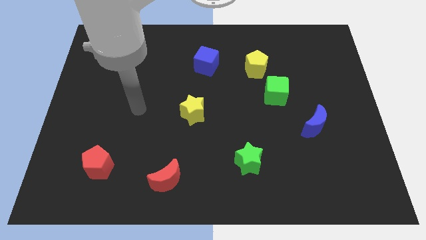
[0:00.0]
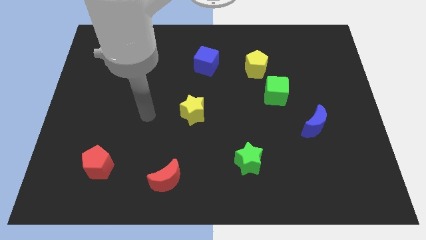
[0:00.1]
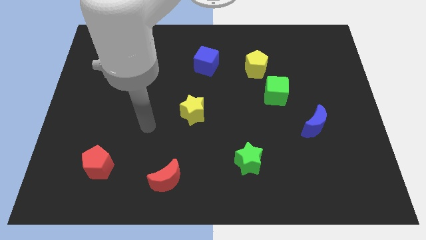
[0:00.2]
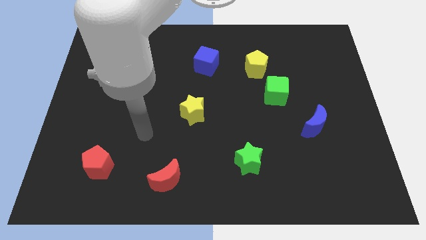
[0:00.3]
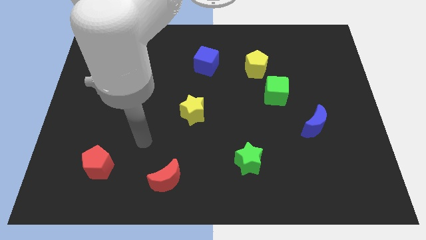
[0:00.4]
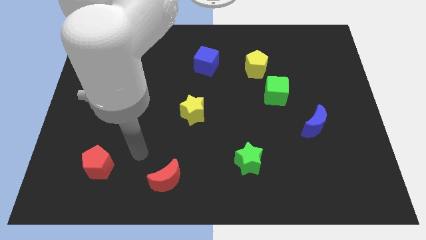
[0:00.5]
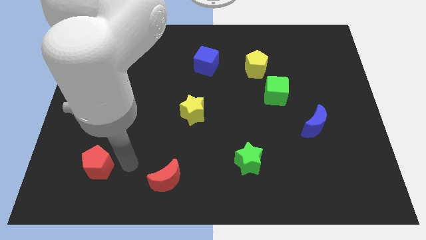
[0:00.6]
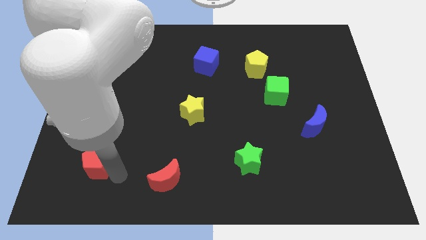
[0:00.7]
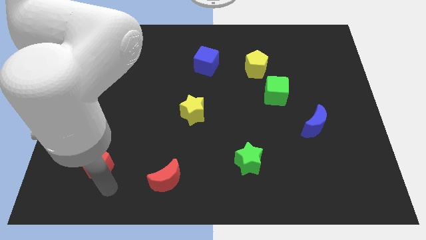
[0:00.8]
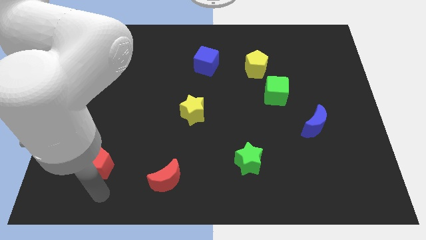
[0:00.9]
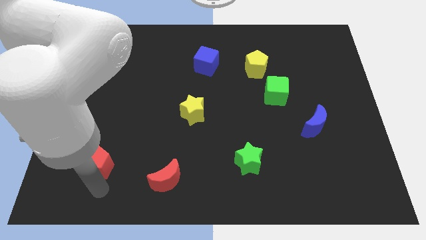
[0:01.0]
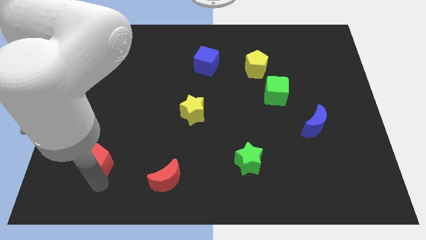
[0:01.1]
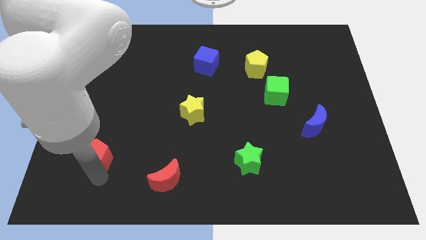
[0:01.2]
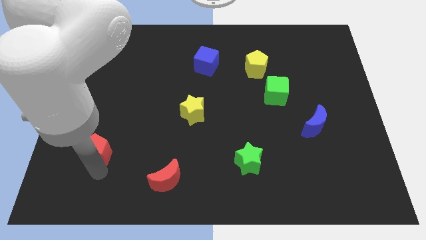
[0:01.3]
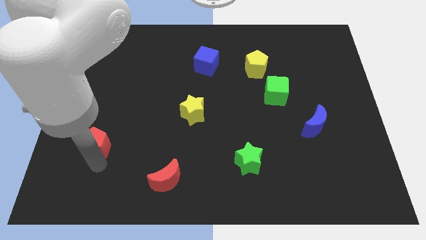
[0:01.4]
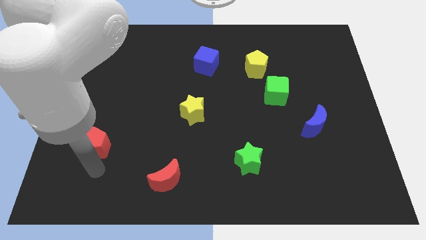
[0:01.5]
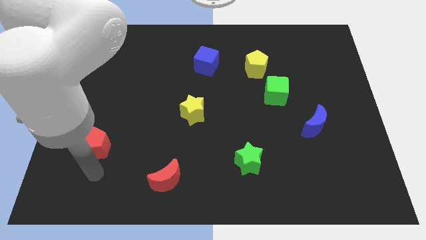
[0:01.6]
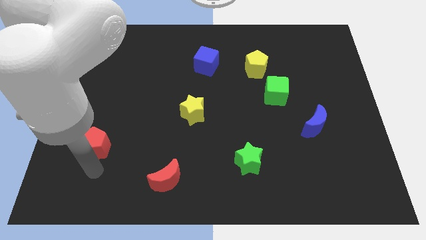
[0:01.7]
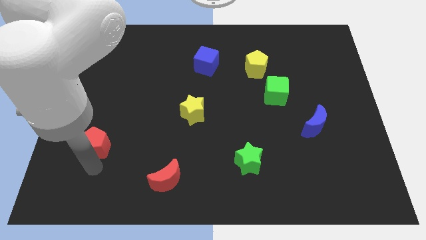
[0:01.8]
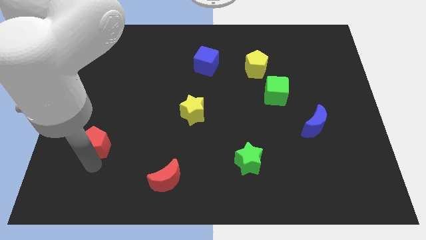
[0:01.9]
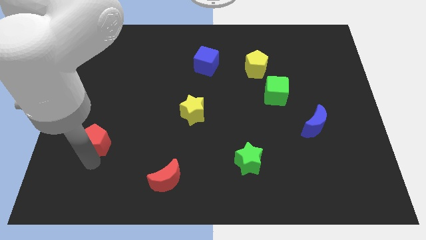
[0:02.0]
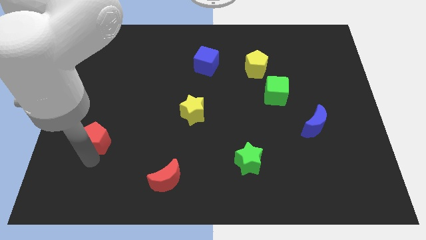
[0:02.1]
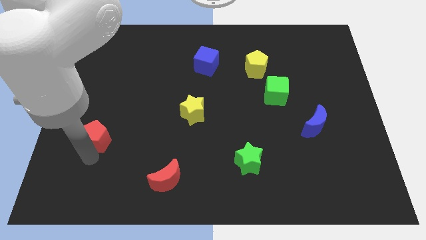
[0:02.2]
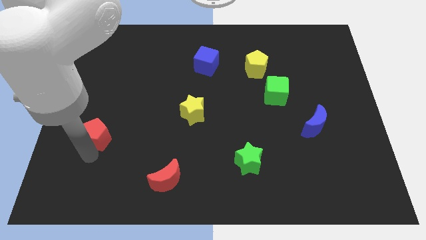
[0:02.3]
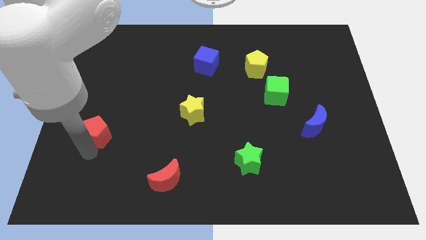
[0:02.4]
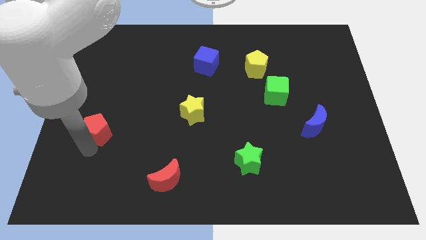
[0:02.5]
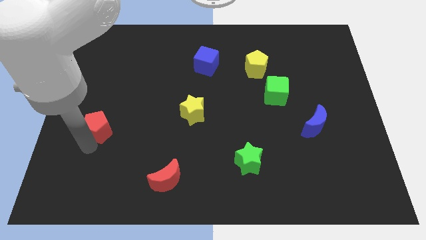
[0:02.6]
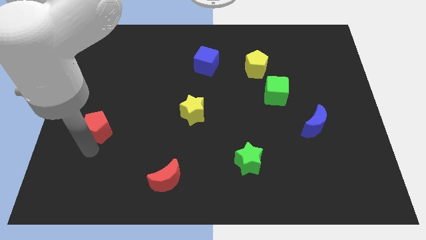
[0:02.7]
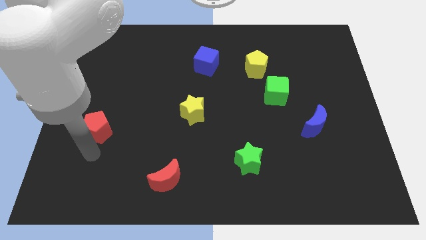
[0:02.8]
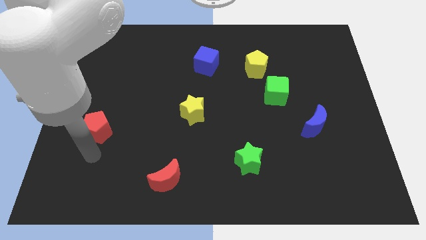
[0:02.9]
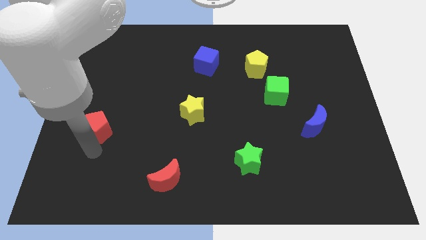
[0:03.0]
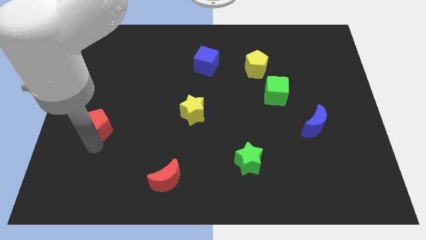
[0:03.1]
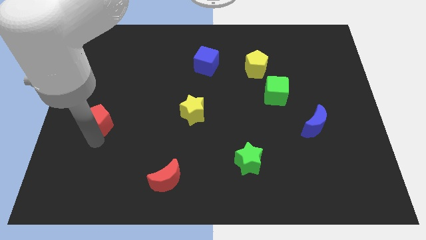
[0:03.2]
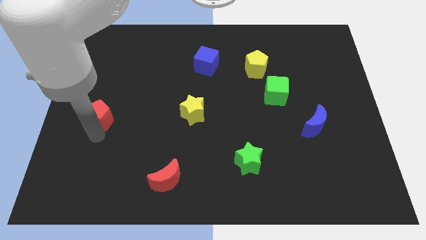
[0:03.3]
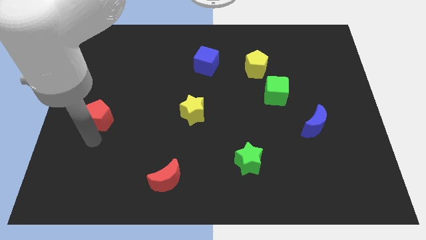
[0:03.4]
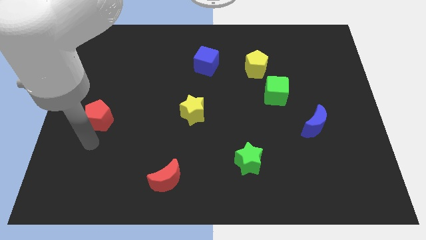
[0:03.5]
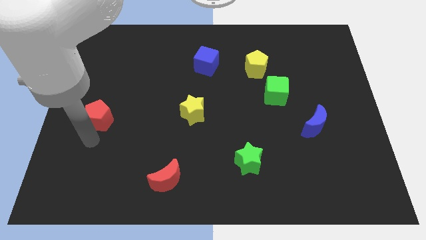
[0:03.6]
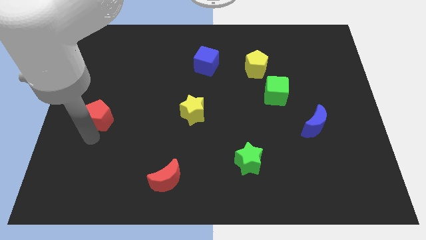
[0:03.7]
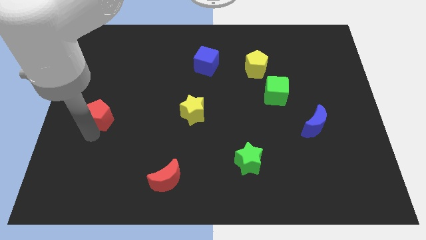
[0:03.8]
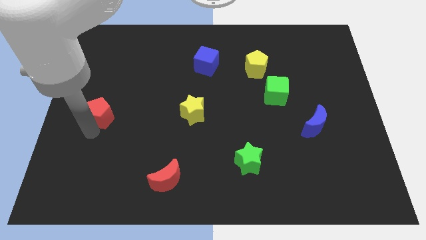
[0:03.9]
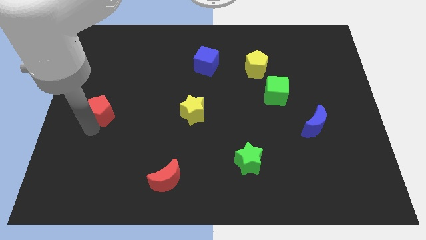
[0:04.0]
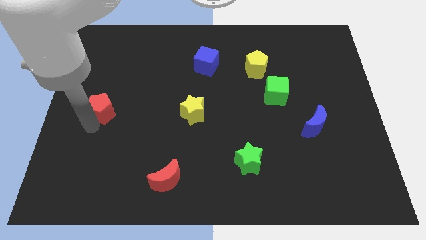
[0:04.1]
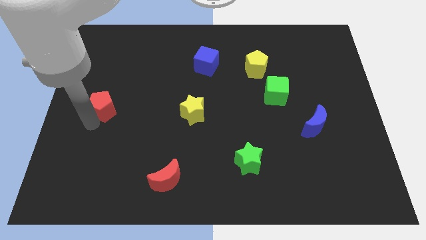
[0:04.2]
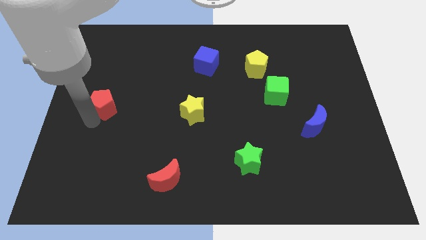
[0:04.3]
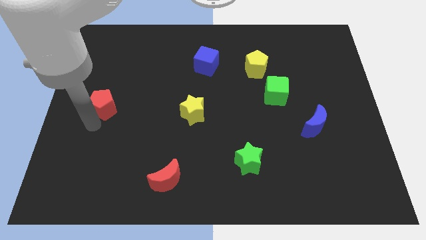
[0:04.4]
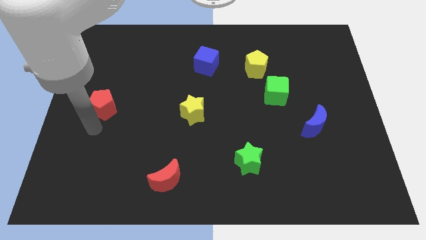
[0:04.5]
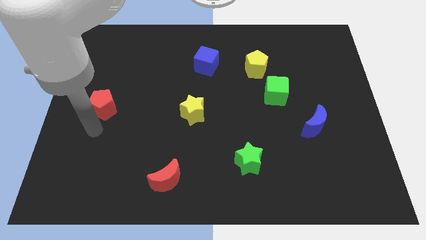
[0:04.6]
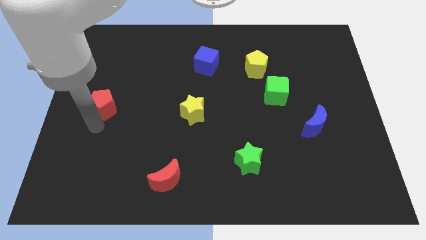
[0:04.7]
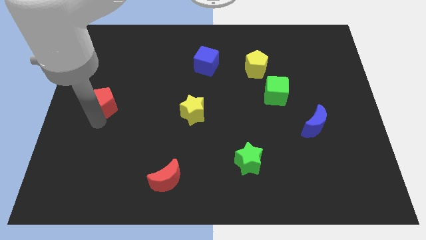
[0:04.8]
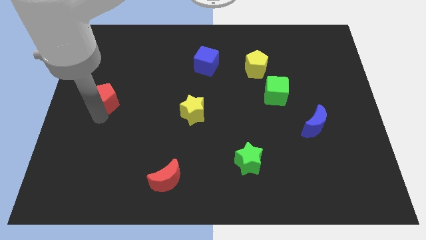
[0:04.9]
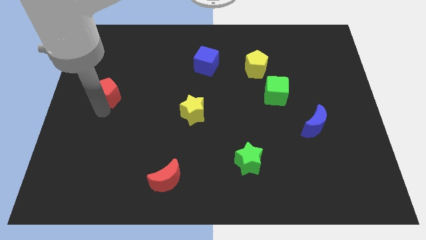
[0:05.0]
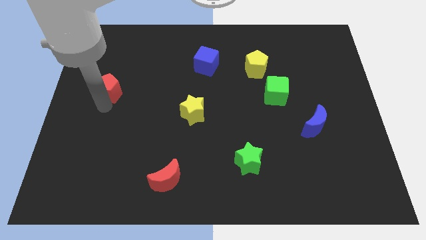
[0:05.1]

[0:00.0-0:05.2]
move the red pentagon upwards

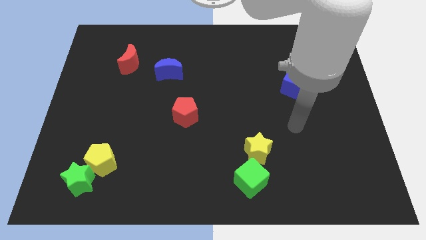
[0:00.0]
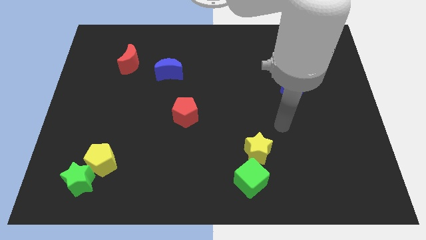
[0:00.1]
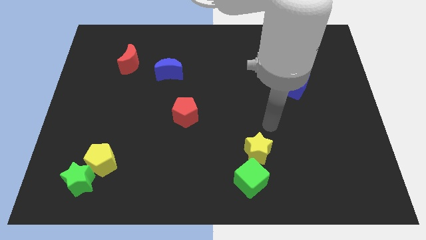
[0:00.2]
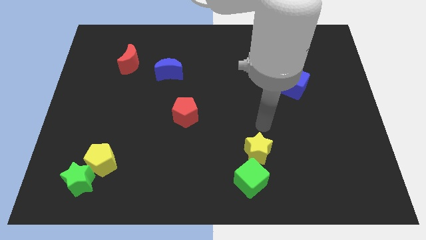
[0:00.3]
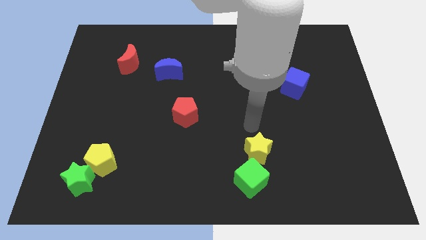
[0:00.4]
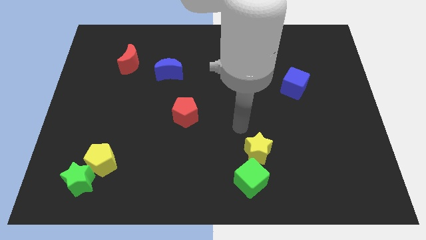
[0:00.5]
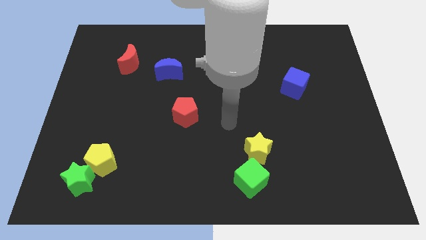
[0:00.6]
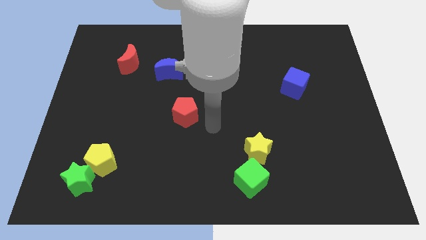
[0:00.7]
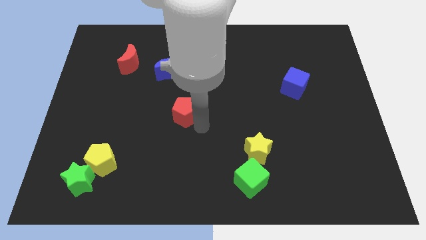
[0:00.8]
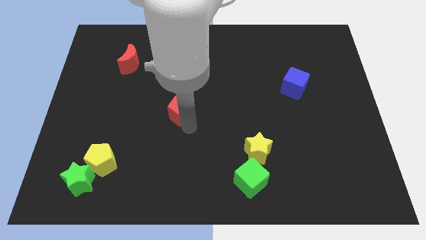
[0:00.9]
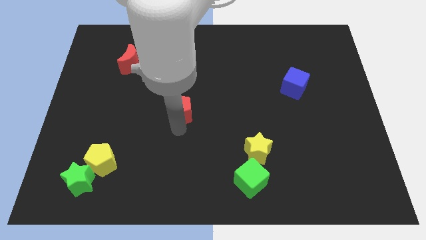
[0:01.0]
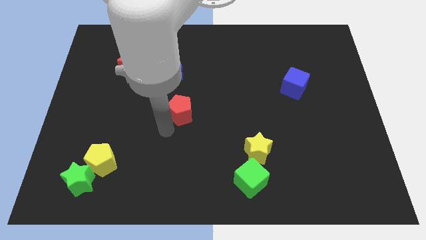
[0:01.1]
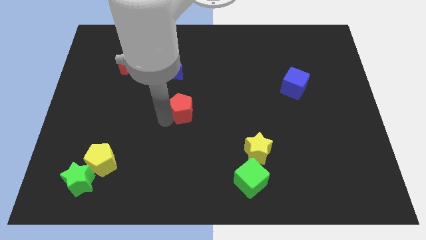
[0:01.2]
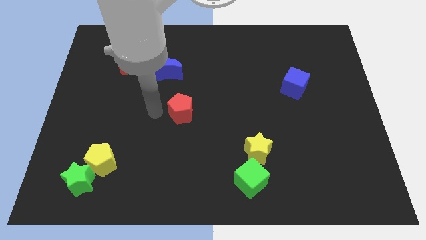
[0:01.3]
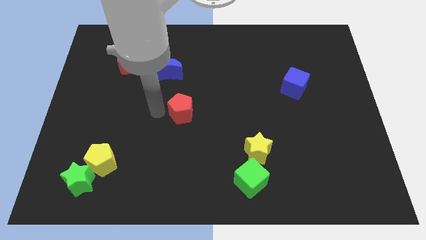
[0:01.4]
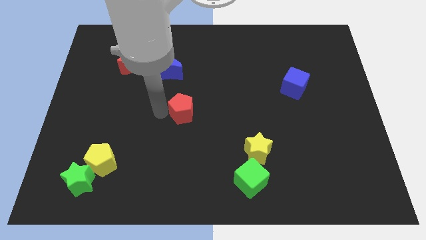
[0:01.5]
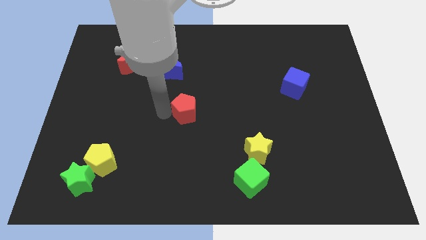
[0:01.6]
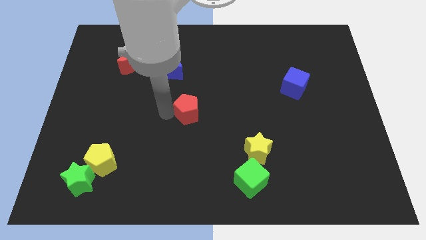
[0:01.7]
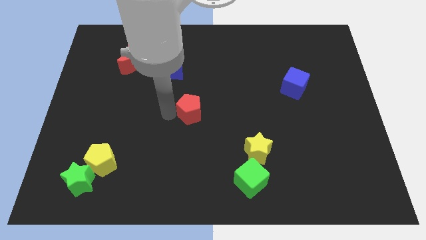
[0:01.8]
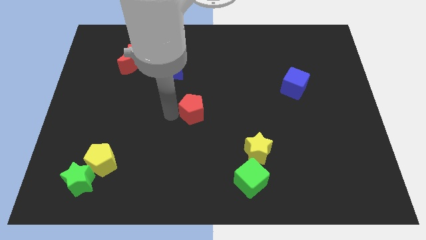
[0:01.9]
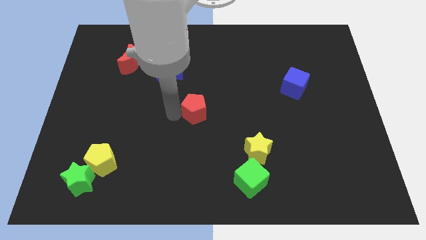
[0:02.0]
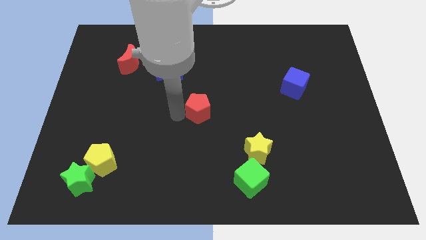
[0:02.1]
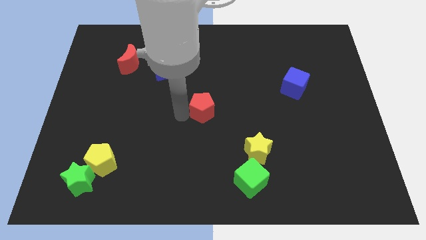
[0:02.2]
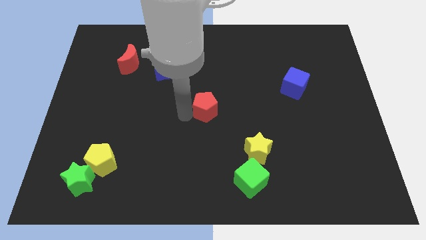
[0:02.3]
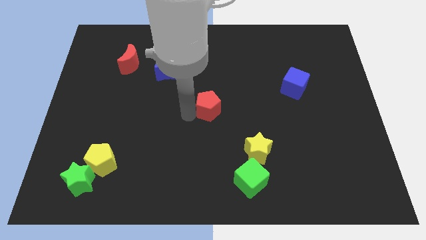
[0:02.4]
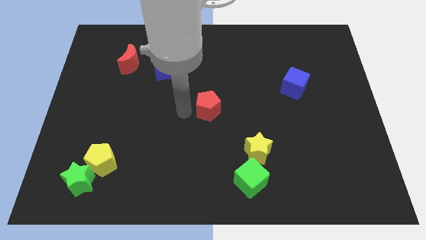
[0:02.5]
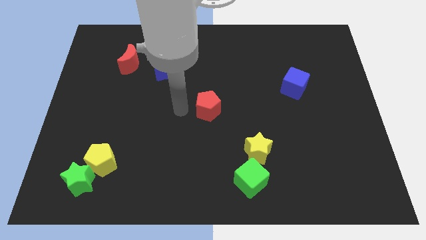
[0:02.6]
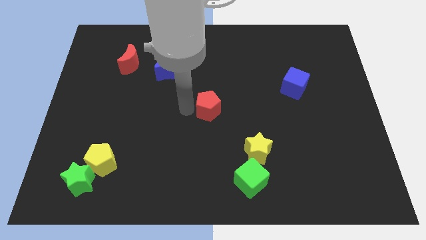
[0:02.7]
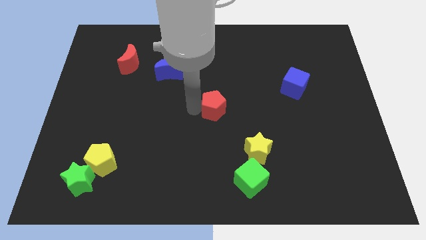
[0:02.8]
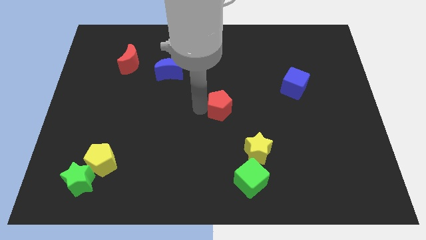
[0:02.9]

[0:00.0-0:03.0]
push the red pentagon to the right a little bit
